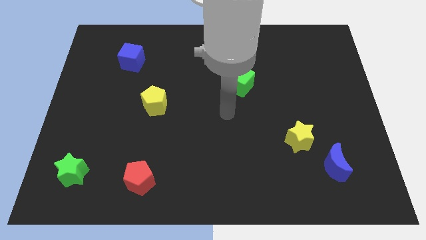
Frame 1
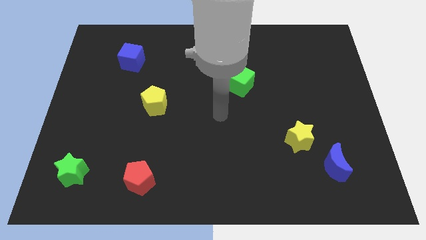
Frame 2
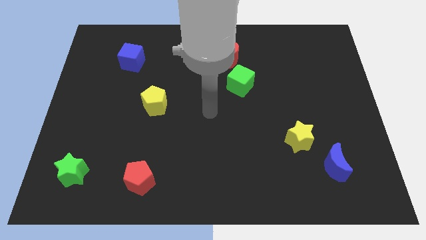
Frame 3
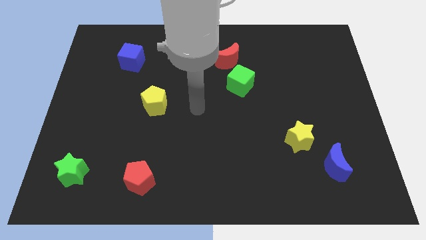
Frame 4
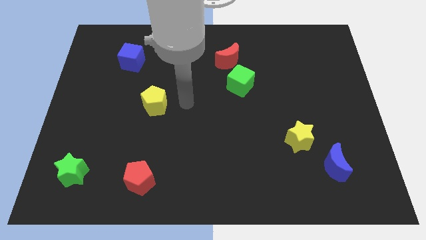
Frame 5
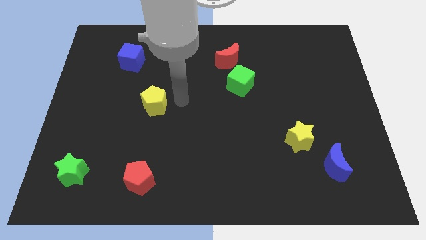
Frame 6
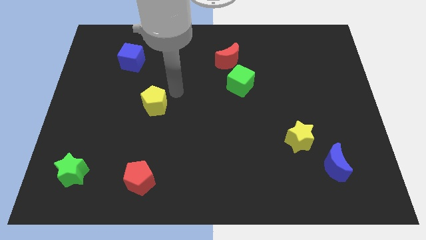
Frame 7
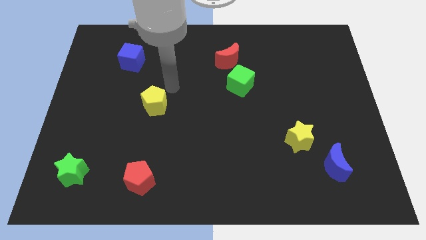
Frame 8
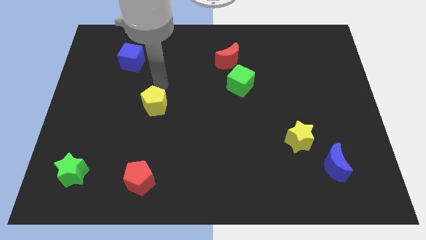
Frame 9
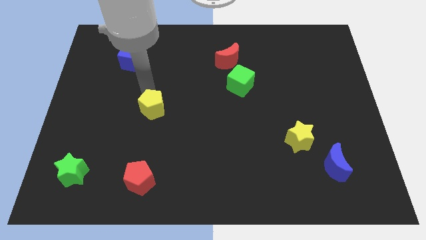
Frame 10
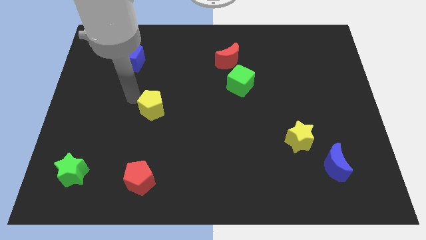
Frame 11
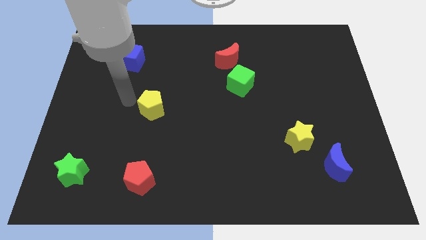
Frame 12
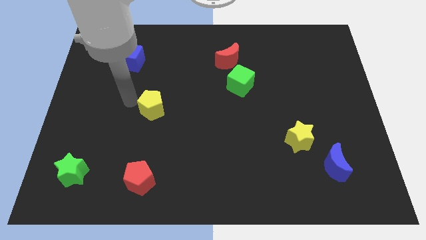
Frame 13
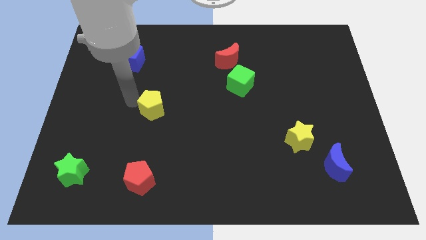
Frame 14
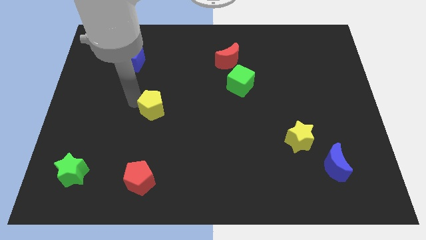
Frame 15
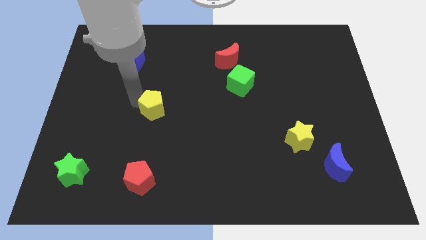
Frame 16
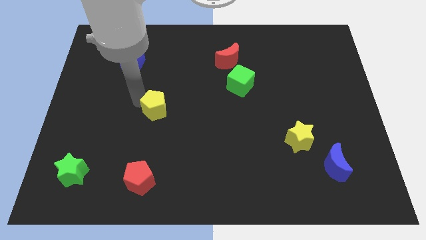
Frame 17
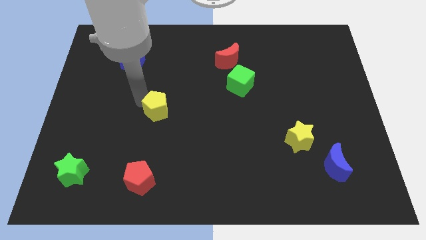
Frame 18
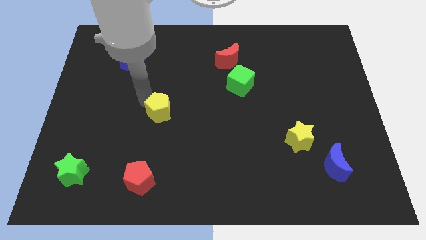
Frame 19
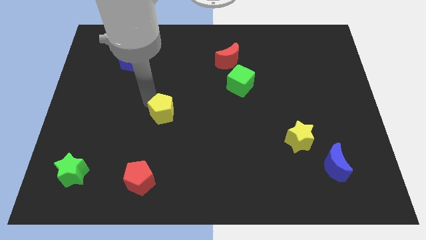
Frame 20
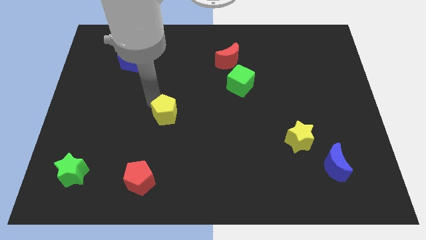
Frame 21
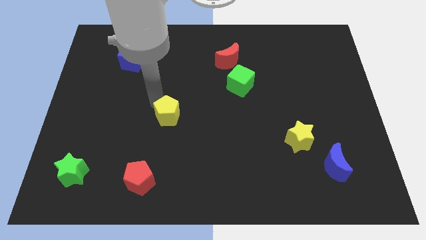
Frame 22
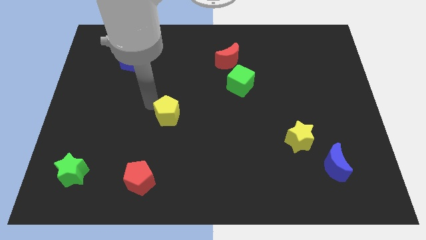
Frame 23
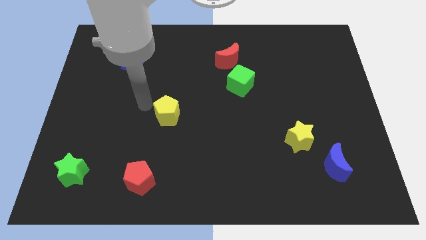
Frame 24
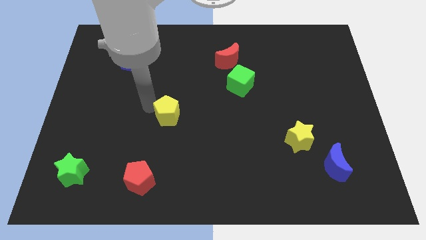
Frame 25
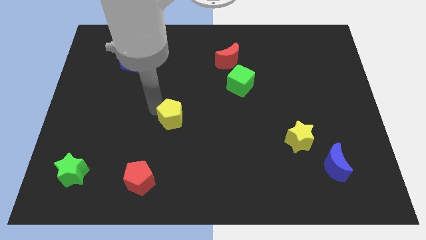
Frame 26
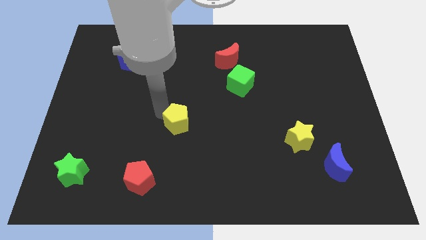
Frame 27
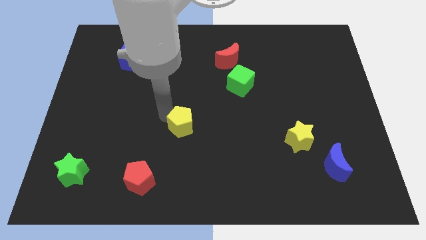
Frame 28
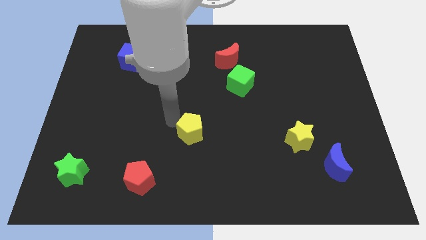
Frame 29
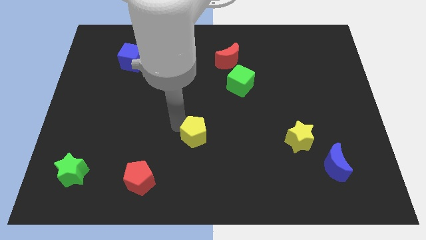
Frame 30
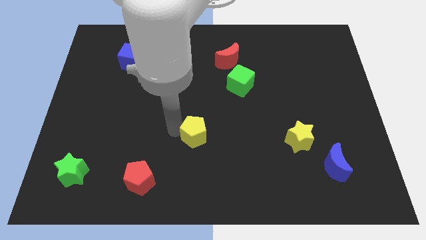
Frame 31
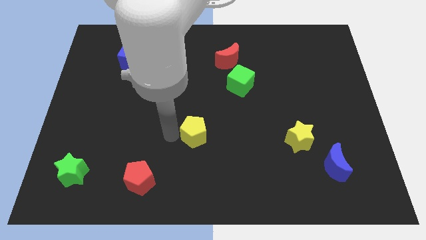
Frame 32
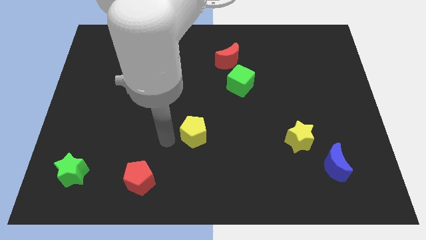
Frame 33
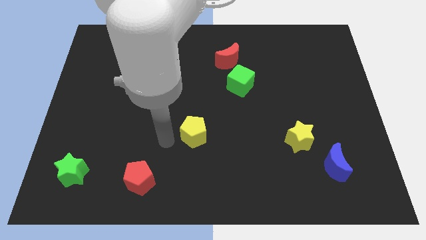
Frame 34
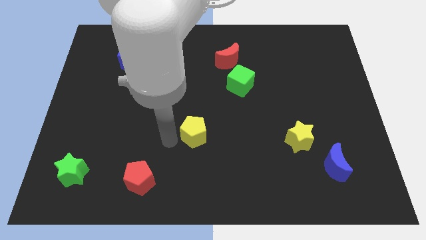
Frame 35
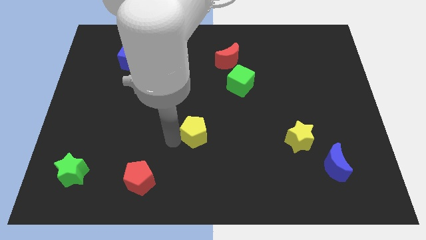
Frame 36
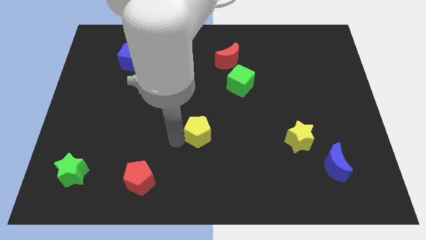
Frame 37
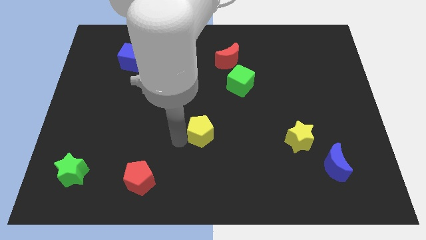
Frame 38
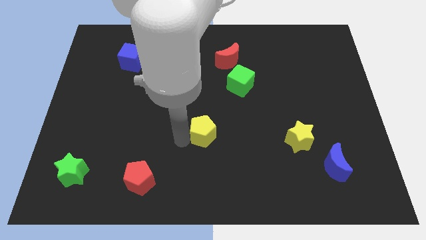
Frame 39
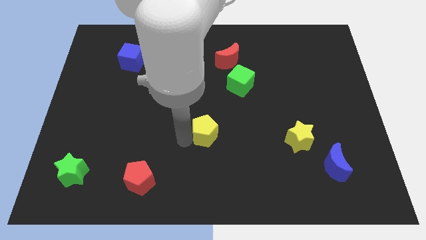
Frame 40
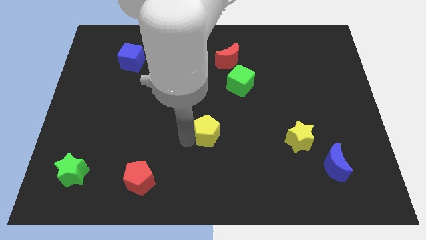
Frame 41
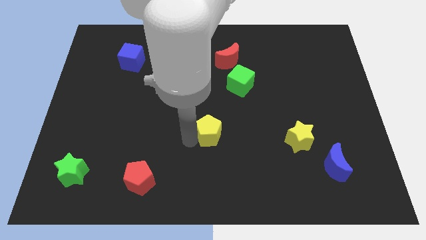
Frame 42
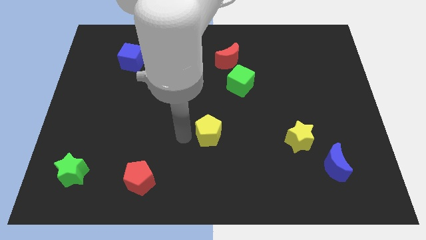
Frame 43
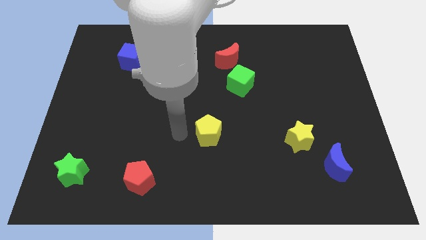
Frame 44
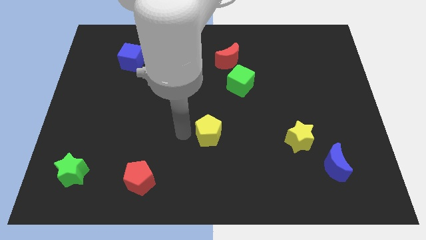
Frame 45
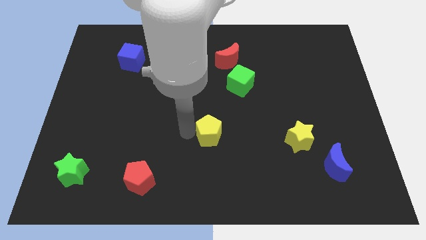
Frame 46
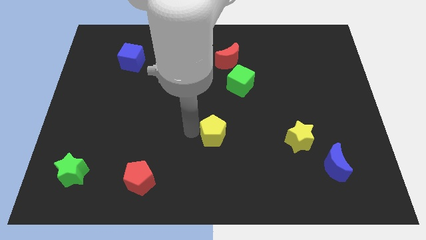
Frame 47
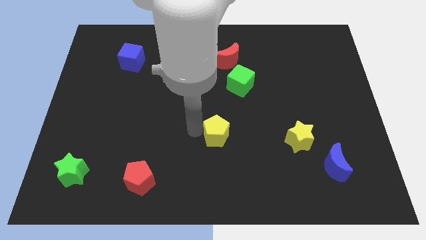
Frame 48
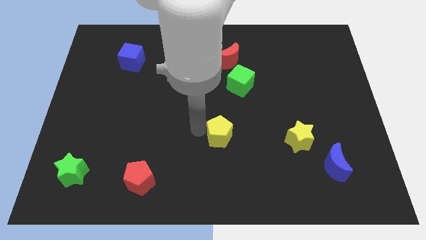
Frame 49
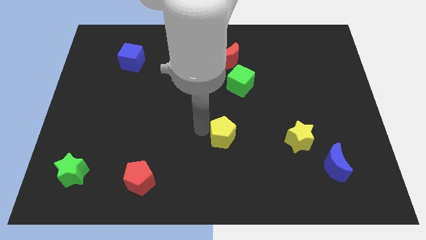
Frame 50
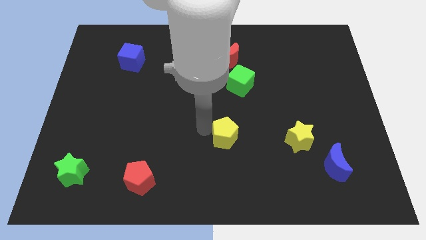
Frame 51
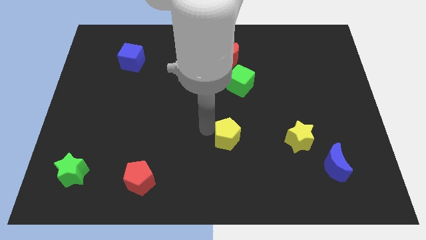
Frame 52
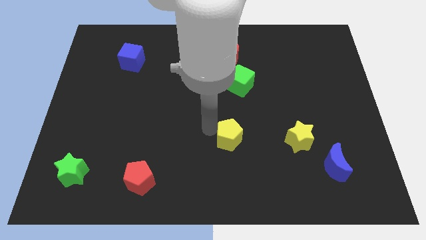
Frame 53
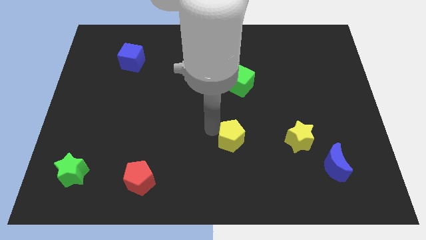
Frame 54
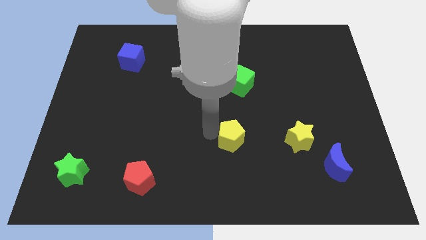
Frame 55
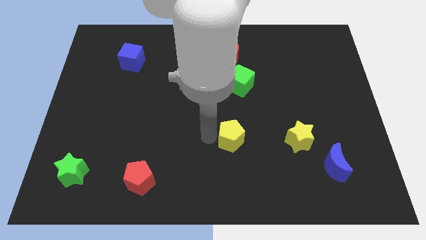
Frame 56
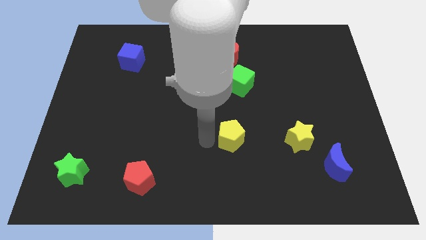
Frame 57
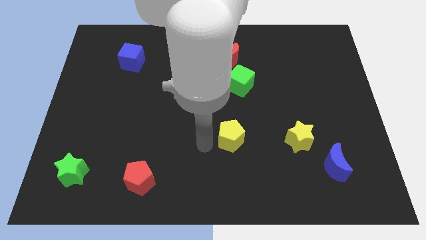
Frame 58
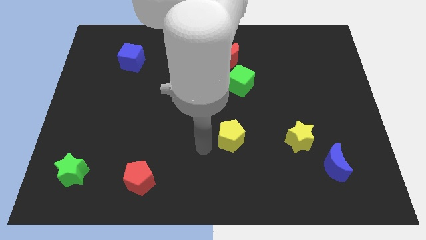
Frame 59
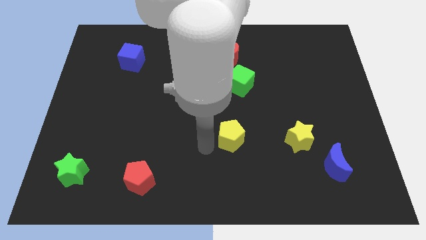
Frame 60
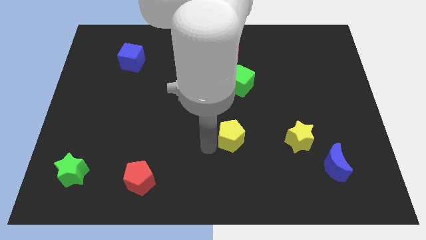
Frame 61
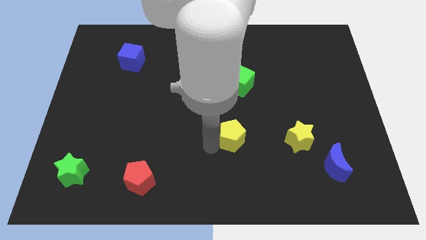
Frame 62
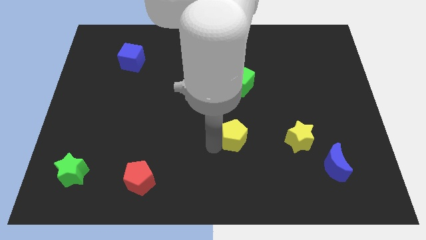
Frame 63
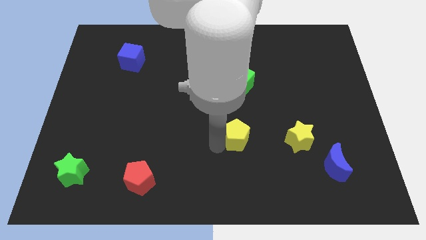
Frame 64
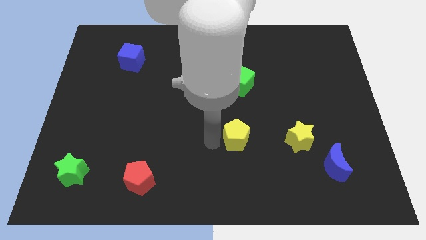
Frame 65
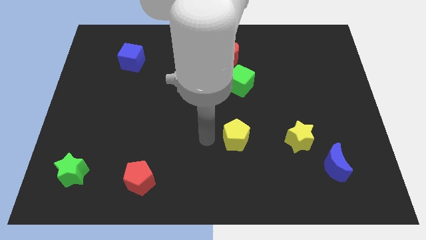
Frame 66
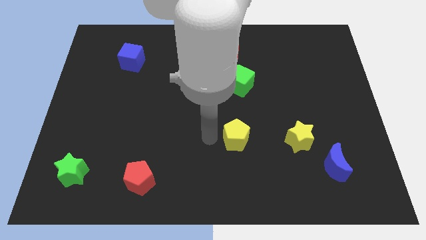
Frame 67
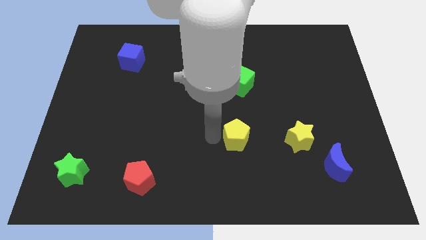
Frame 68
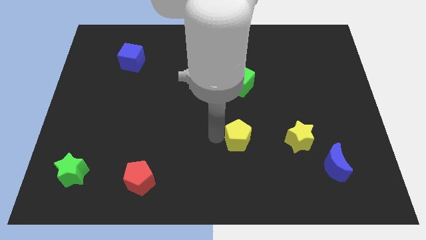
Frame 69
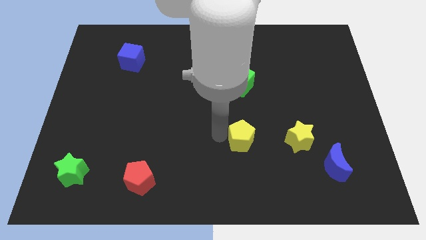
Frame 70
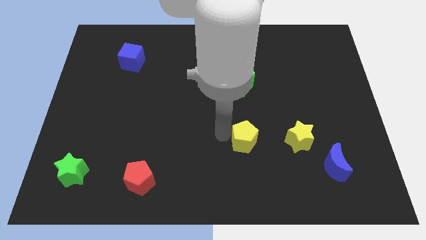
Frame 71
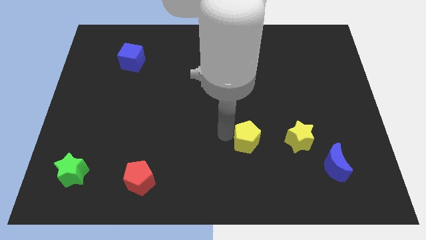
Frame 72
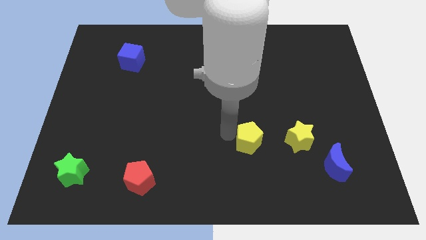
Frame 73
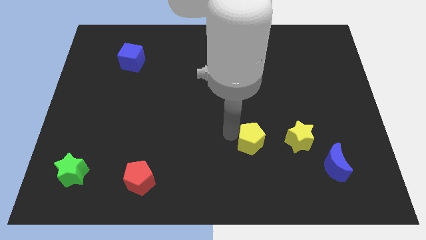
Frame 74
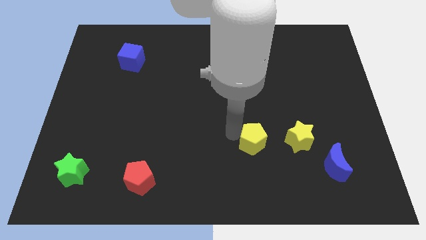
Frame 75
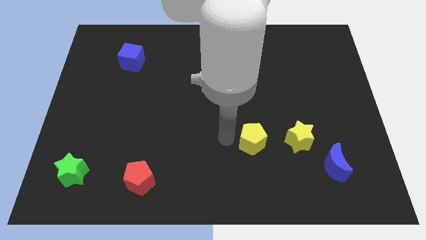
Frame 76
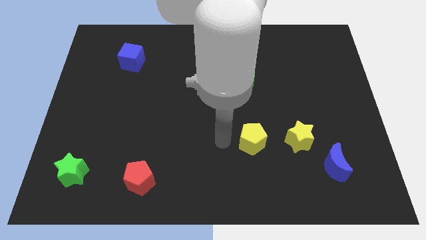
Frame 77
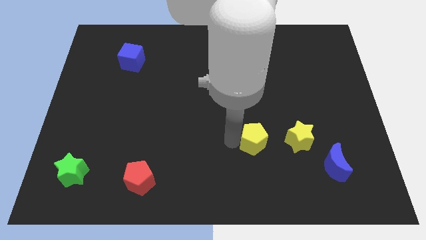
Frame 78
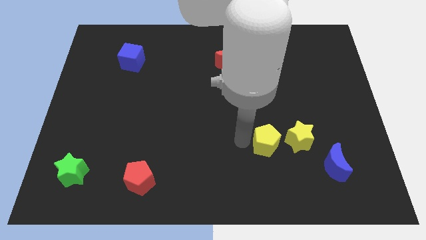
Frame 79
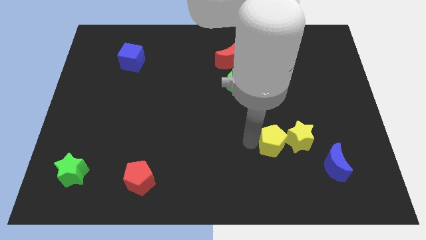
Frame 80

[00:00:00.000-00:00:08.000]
slide the yellow pentagon to the yellow star
